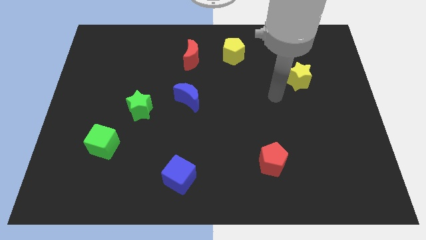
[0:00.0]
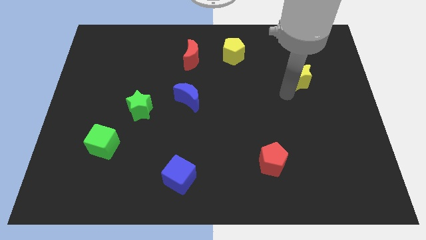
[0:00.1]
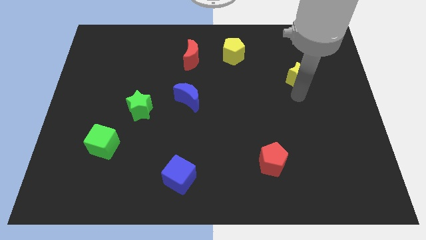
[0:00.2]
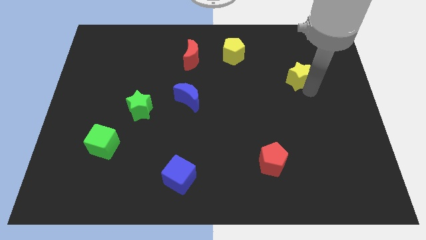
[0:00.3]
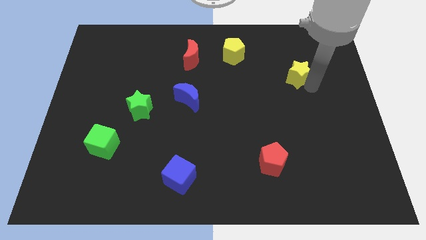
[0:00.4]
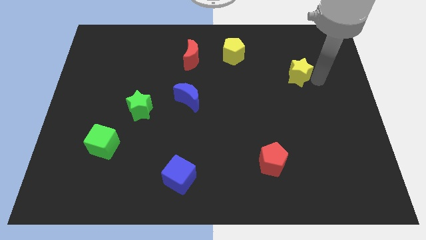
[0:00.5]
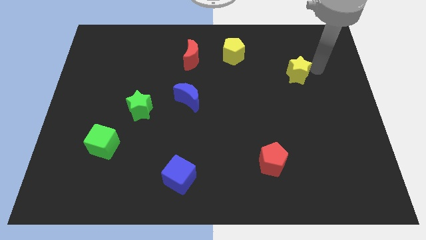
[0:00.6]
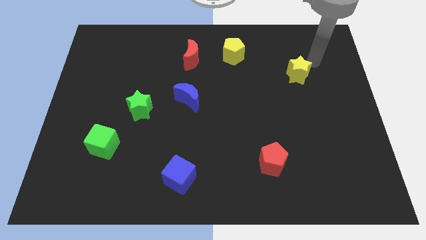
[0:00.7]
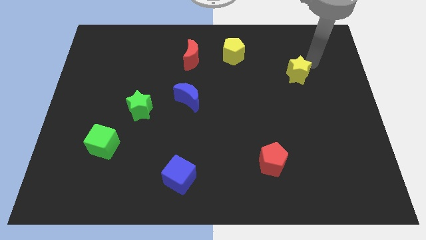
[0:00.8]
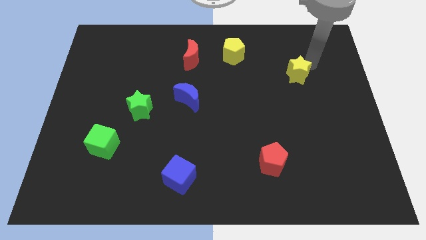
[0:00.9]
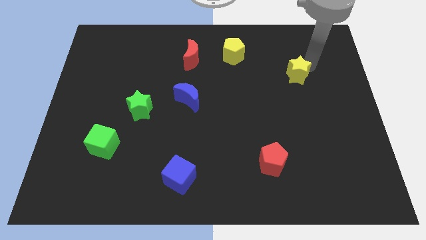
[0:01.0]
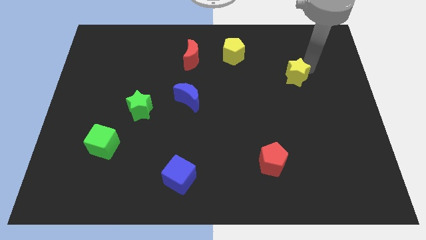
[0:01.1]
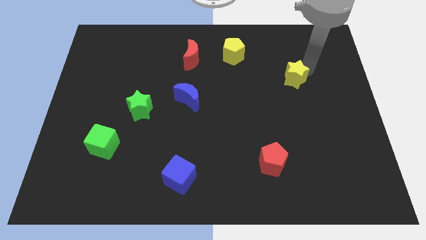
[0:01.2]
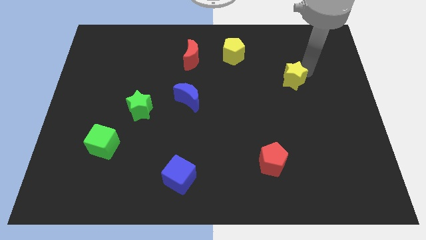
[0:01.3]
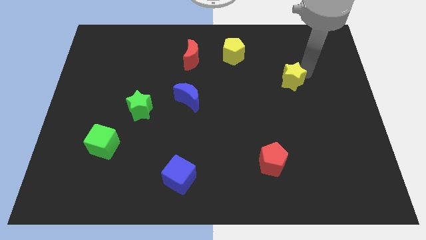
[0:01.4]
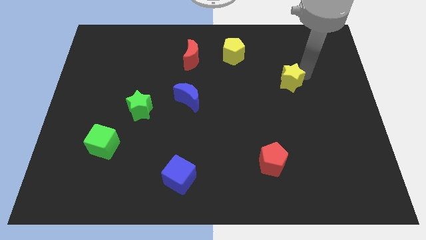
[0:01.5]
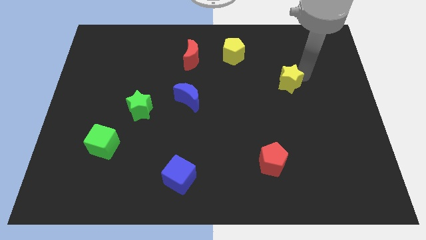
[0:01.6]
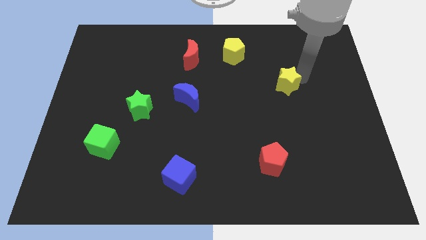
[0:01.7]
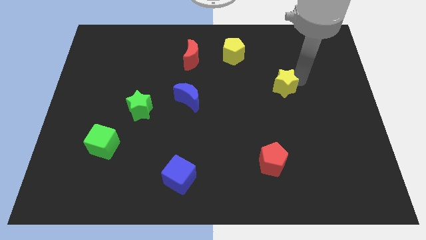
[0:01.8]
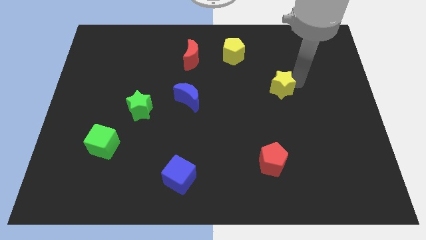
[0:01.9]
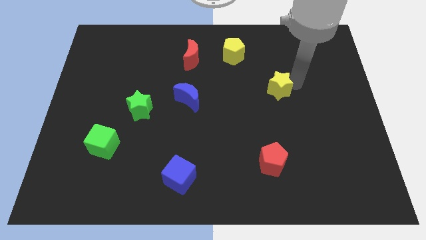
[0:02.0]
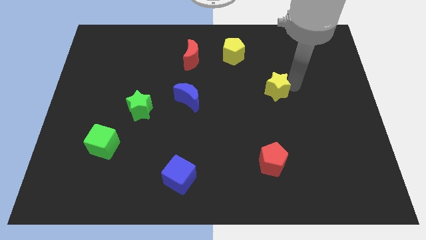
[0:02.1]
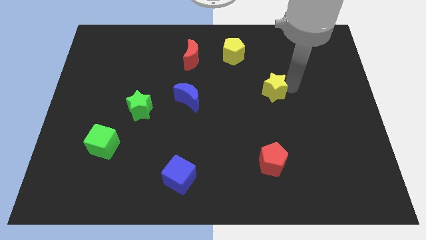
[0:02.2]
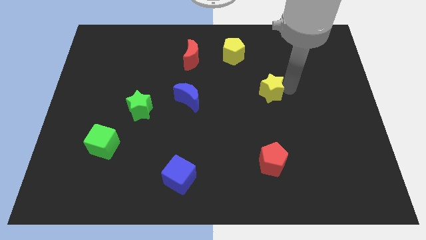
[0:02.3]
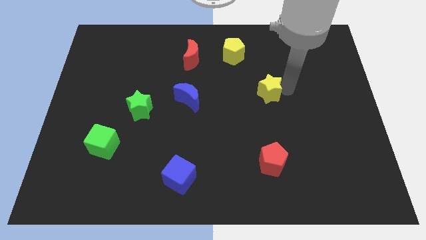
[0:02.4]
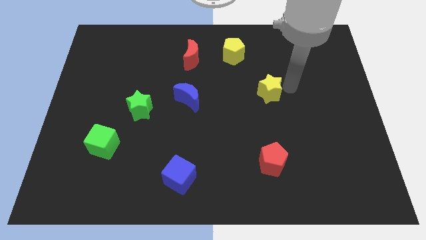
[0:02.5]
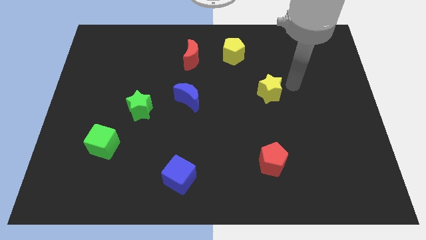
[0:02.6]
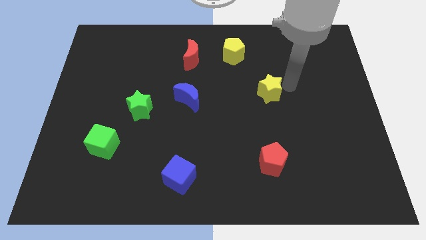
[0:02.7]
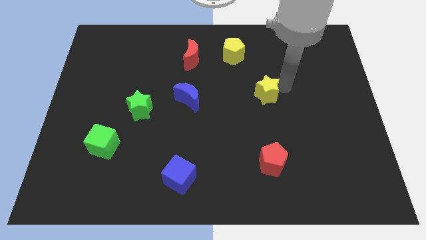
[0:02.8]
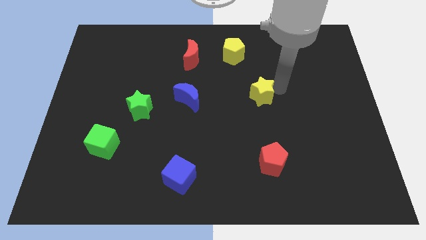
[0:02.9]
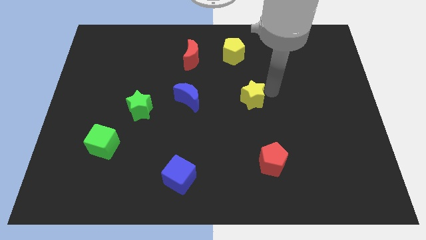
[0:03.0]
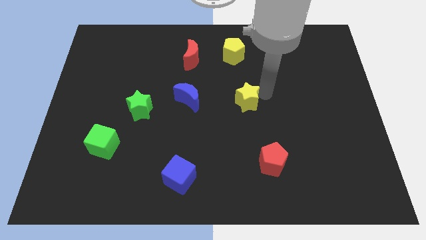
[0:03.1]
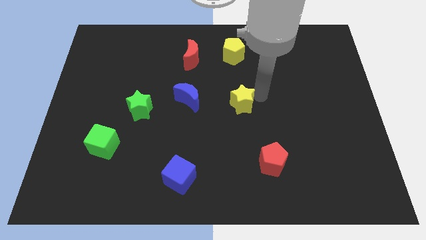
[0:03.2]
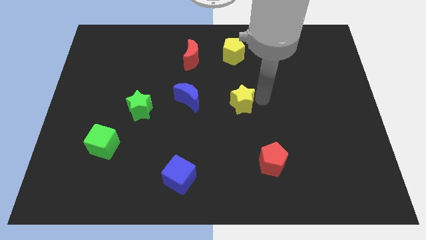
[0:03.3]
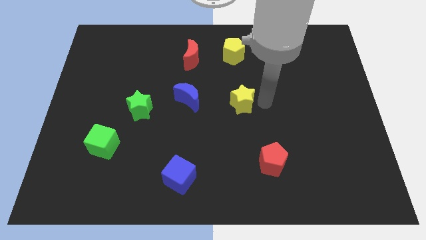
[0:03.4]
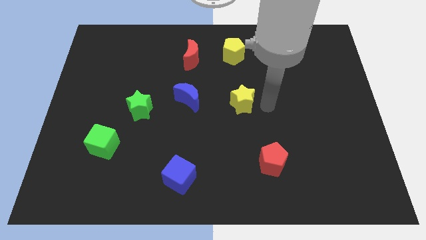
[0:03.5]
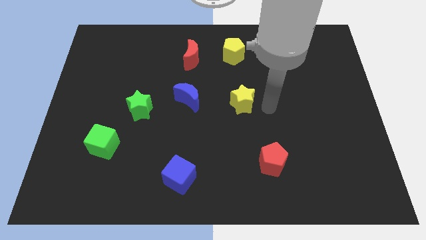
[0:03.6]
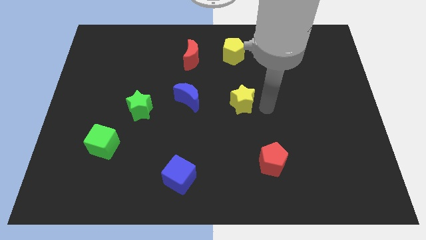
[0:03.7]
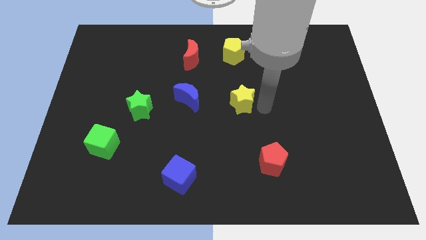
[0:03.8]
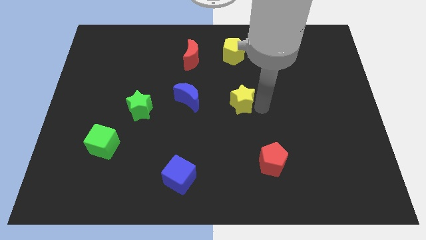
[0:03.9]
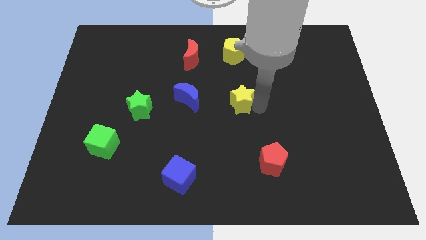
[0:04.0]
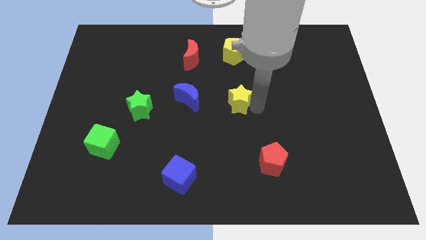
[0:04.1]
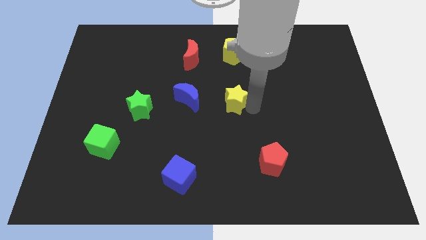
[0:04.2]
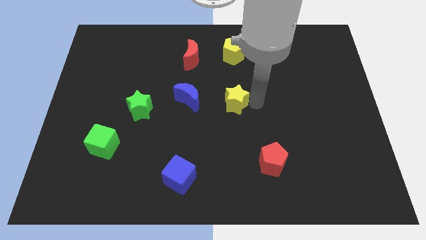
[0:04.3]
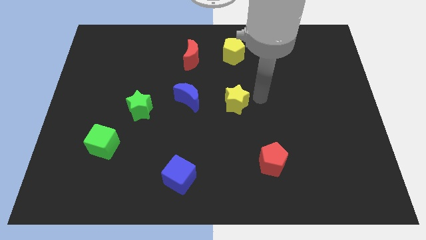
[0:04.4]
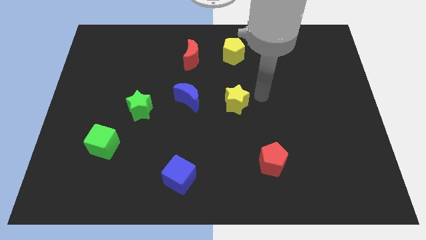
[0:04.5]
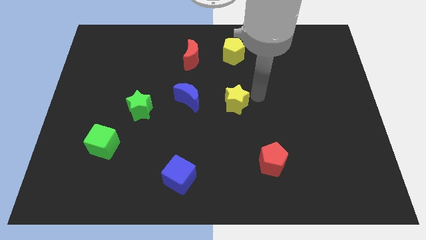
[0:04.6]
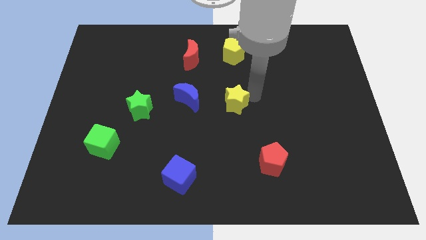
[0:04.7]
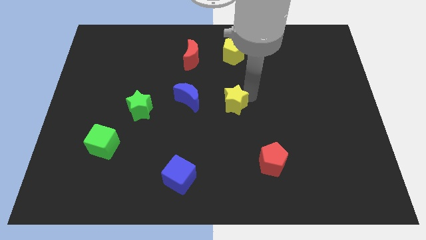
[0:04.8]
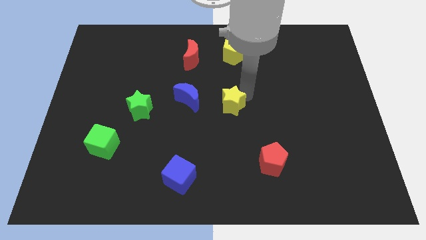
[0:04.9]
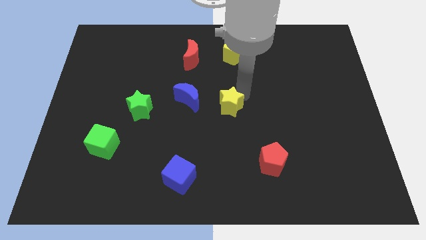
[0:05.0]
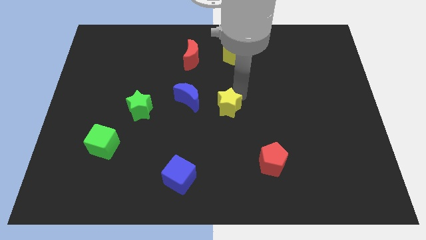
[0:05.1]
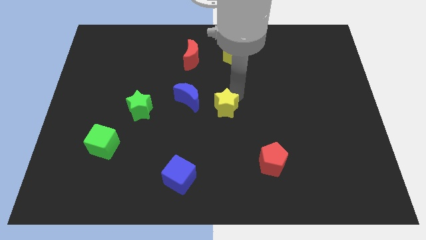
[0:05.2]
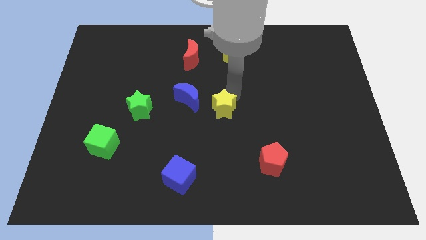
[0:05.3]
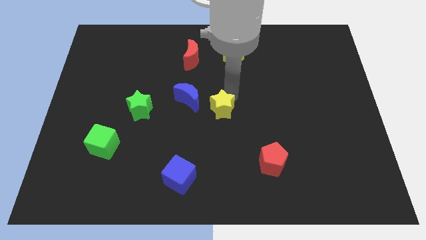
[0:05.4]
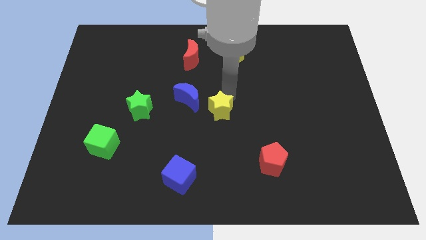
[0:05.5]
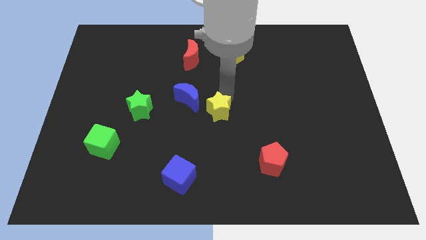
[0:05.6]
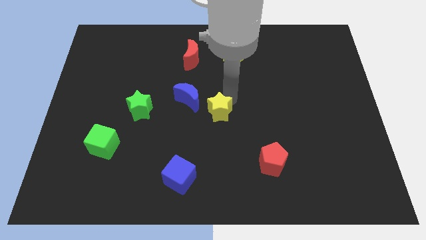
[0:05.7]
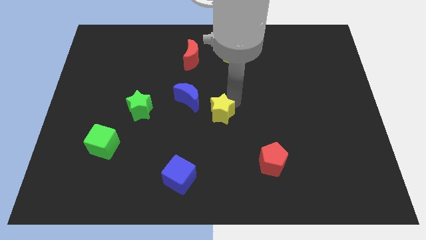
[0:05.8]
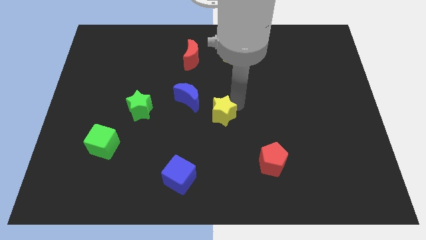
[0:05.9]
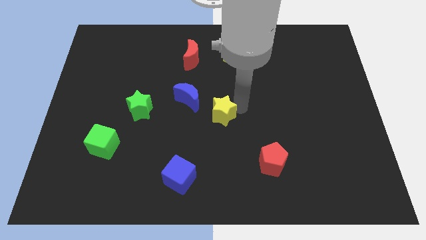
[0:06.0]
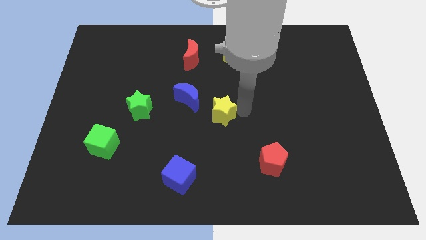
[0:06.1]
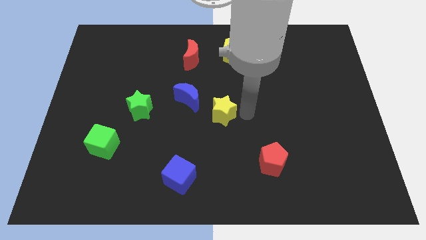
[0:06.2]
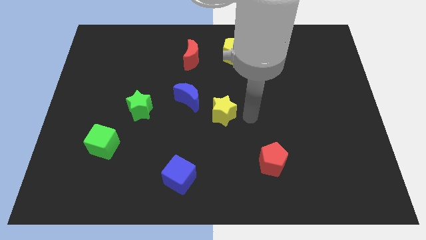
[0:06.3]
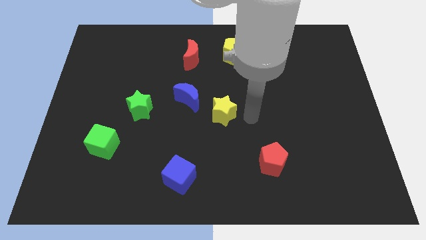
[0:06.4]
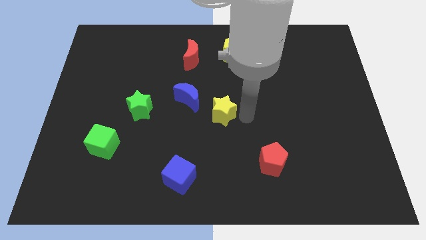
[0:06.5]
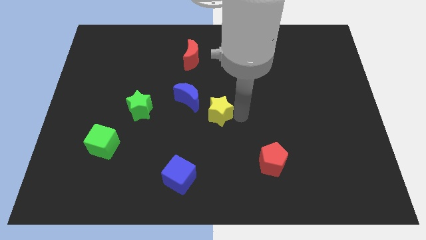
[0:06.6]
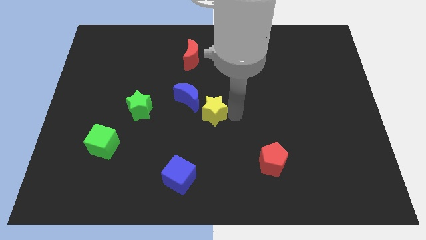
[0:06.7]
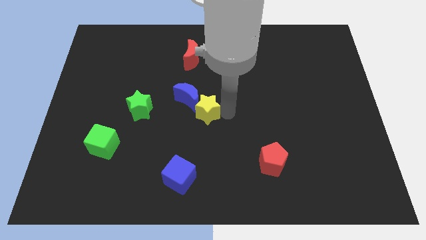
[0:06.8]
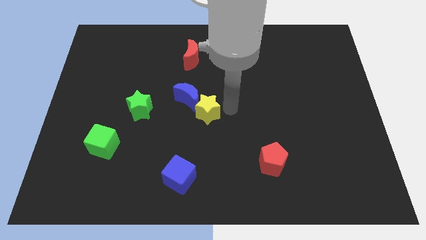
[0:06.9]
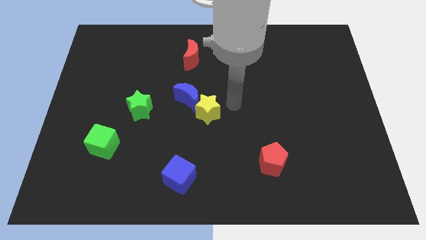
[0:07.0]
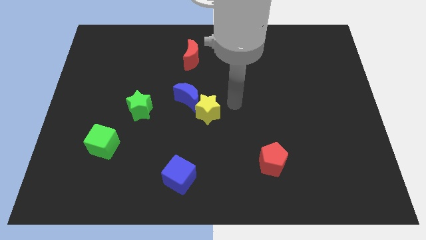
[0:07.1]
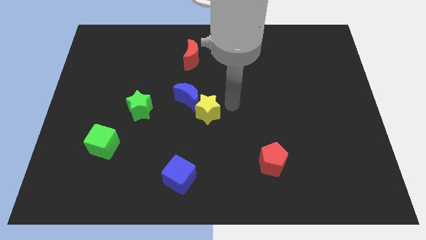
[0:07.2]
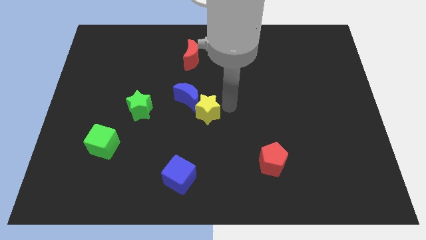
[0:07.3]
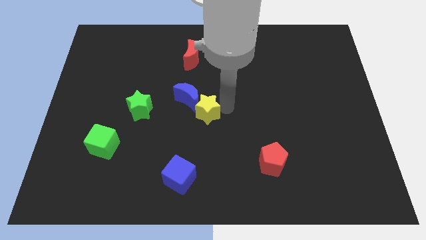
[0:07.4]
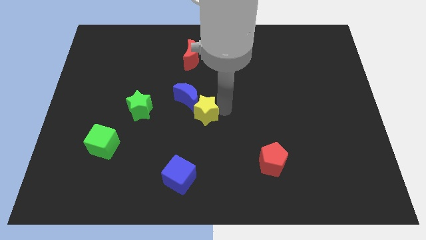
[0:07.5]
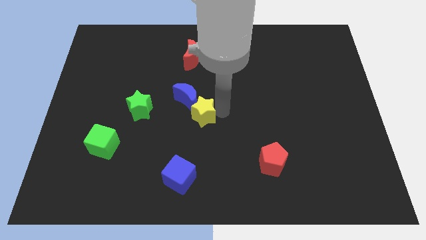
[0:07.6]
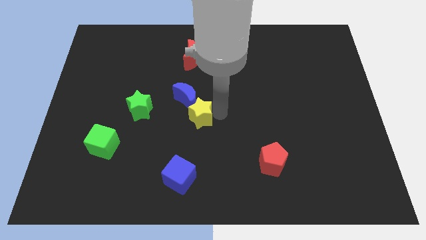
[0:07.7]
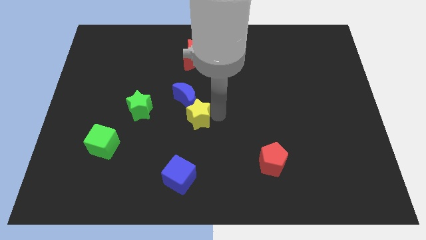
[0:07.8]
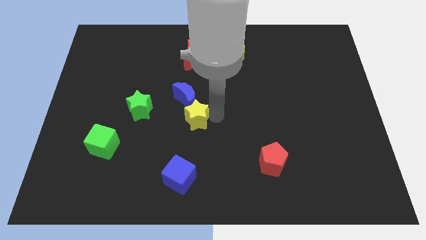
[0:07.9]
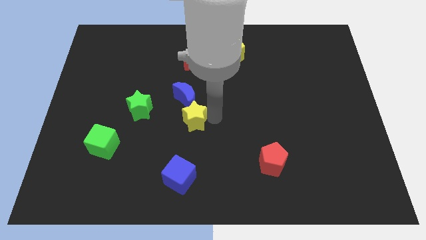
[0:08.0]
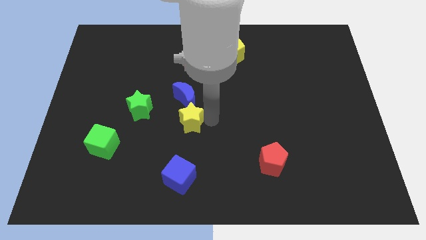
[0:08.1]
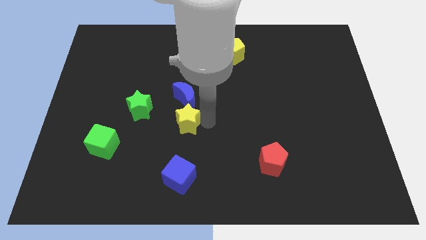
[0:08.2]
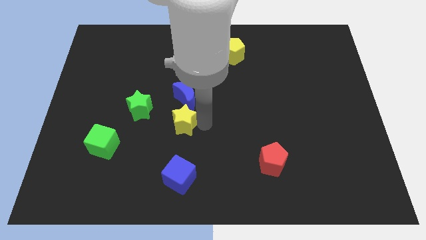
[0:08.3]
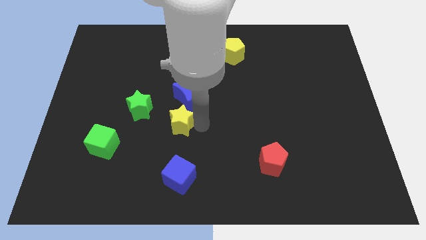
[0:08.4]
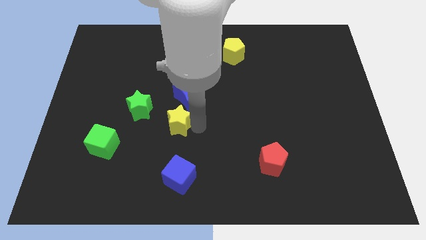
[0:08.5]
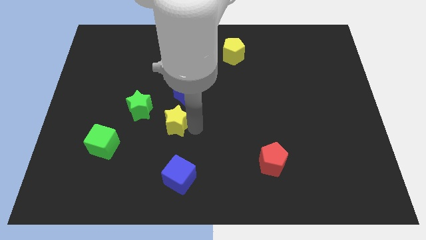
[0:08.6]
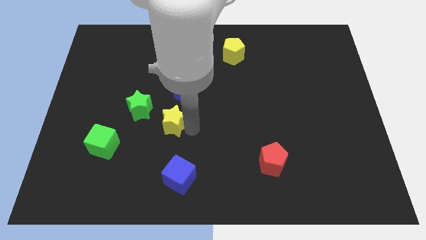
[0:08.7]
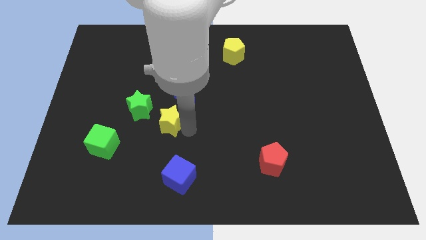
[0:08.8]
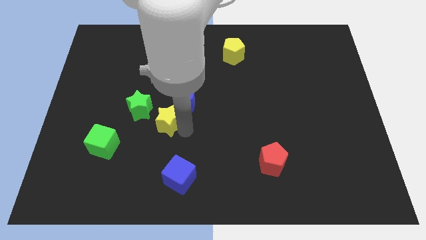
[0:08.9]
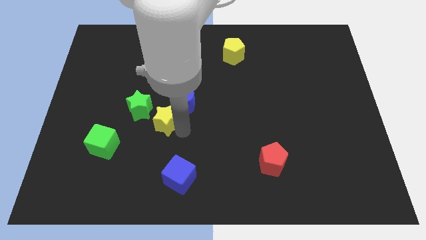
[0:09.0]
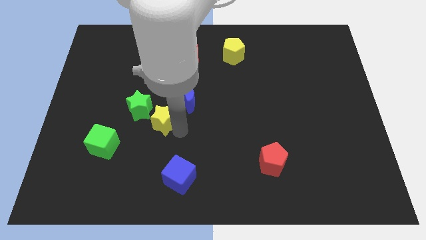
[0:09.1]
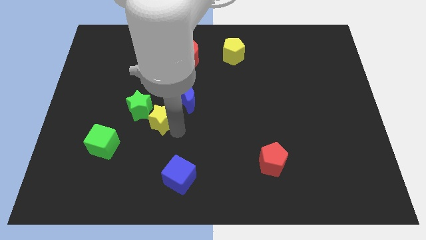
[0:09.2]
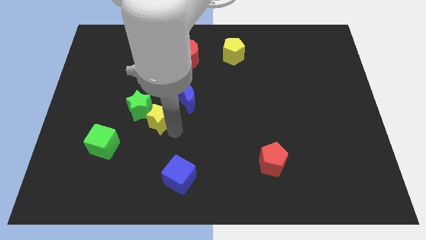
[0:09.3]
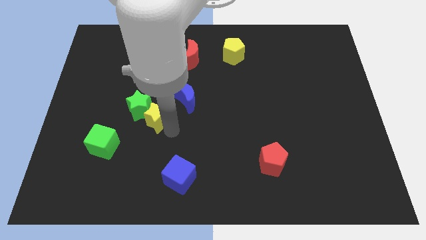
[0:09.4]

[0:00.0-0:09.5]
move the yellow star towards the green star
